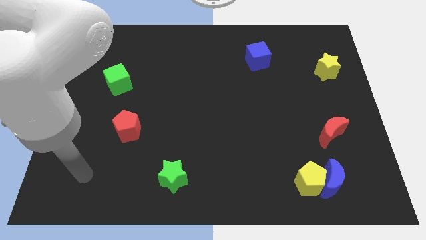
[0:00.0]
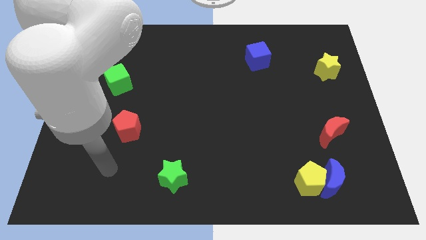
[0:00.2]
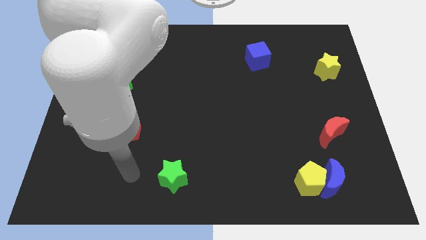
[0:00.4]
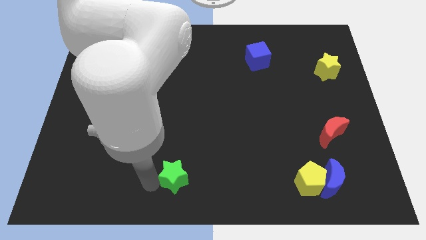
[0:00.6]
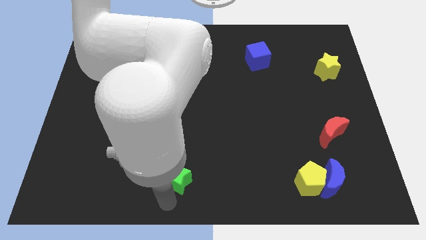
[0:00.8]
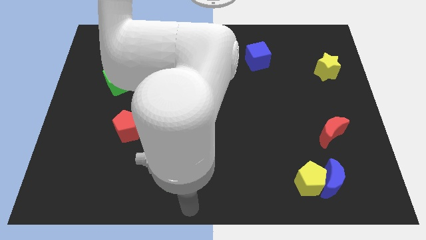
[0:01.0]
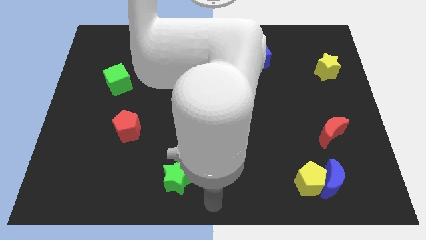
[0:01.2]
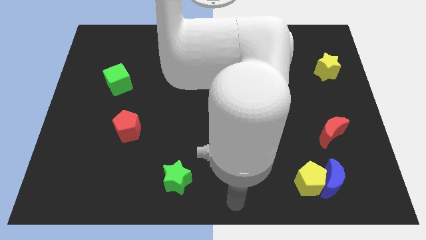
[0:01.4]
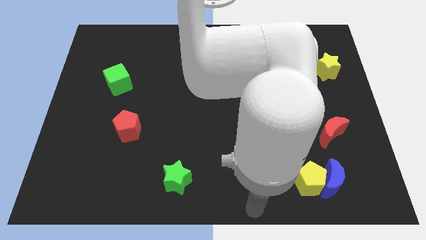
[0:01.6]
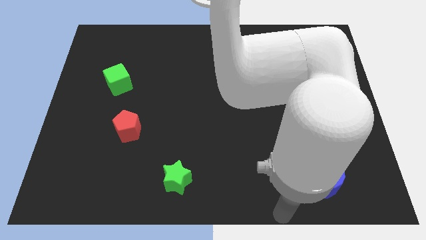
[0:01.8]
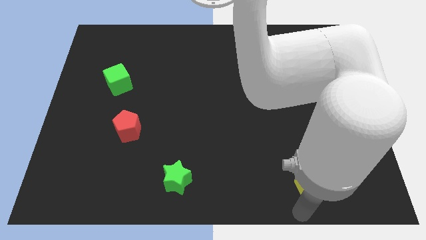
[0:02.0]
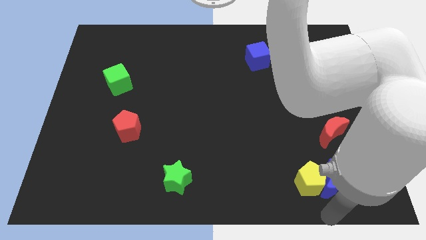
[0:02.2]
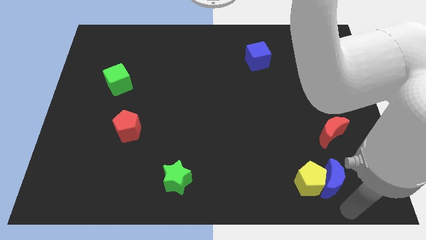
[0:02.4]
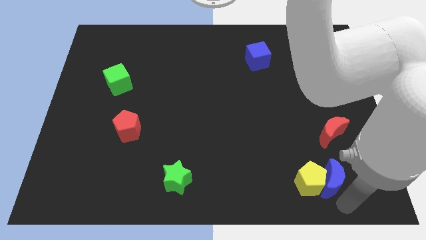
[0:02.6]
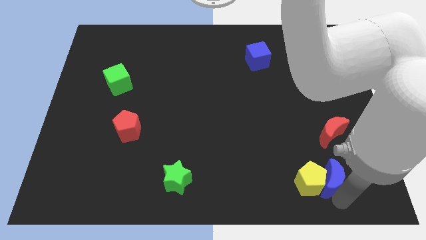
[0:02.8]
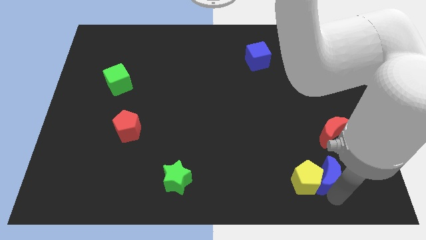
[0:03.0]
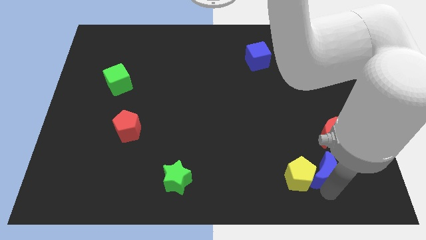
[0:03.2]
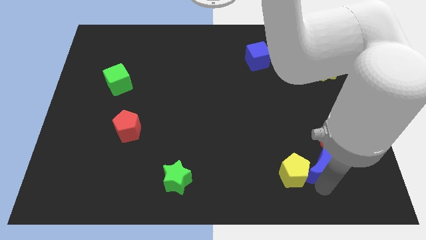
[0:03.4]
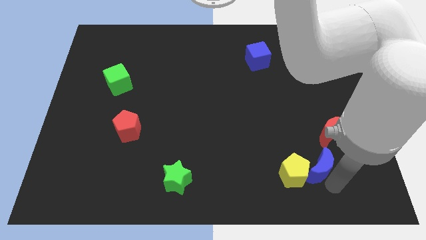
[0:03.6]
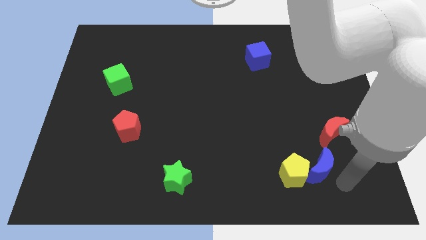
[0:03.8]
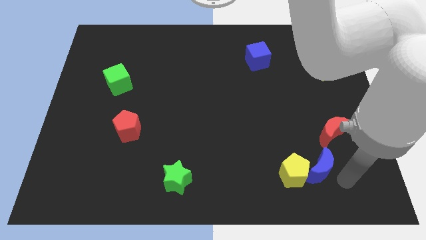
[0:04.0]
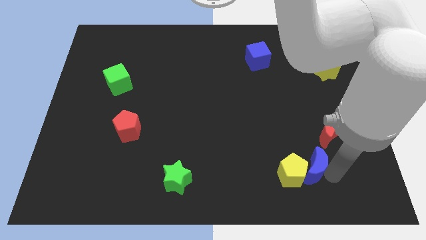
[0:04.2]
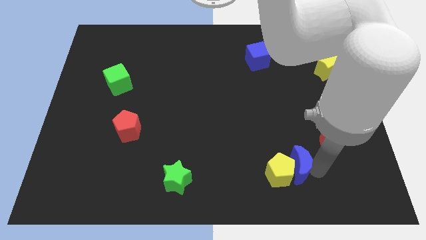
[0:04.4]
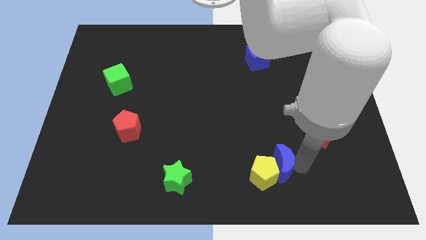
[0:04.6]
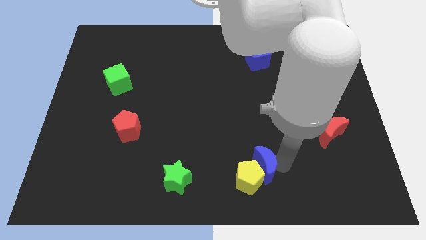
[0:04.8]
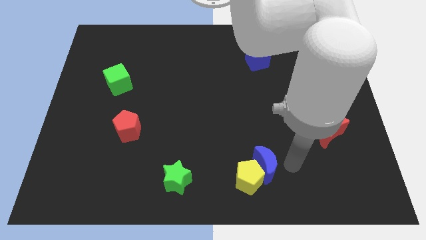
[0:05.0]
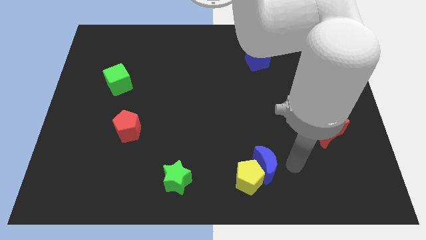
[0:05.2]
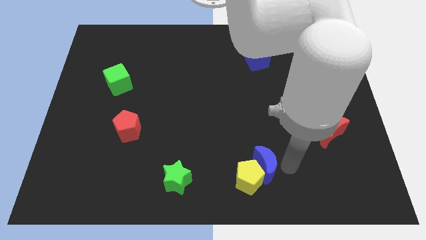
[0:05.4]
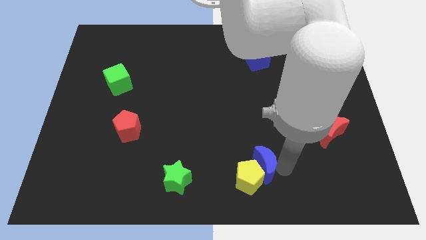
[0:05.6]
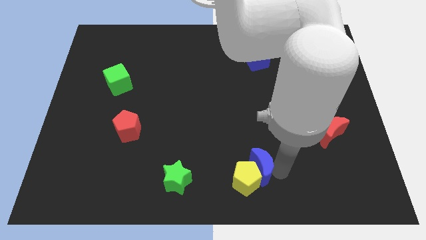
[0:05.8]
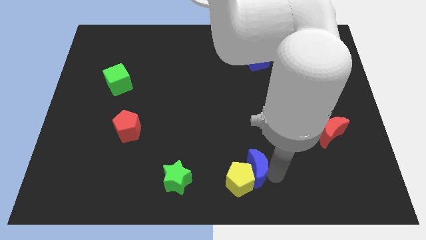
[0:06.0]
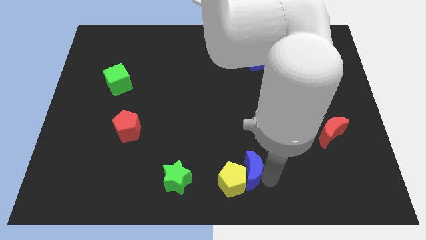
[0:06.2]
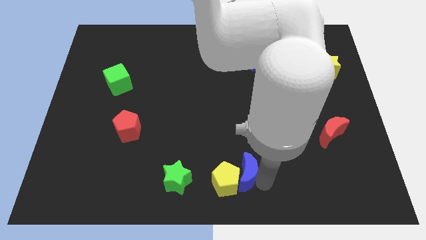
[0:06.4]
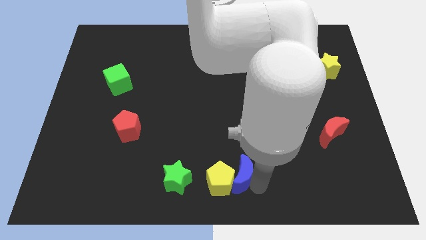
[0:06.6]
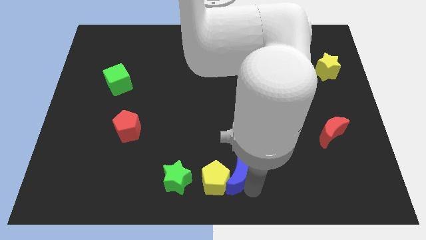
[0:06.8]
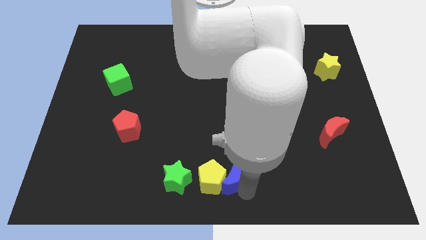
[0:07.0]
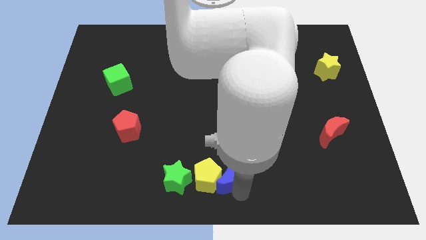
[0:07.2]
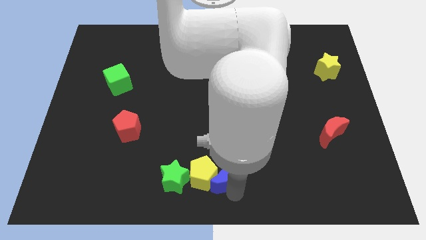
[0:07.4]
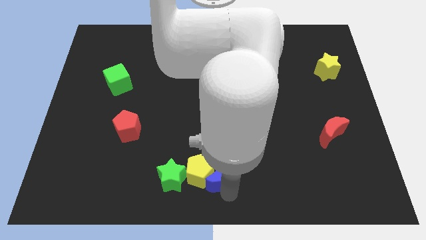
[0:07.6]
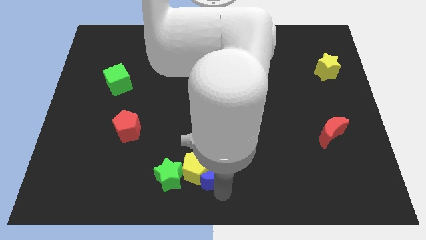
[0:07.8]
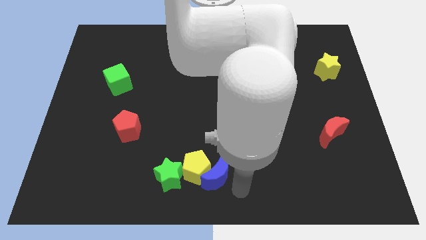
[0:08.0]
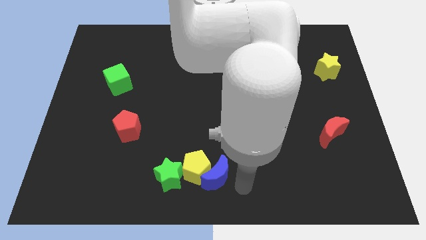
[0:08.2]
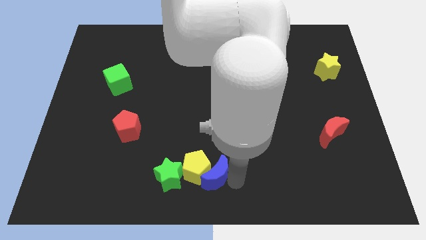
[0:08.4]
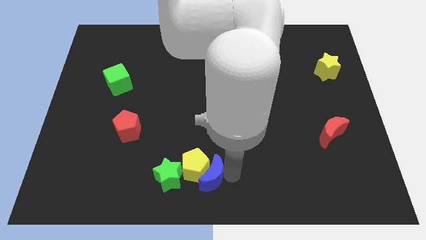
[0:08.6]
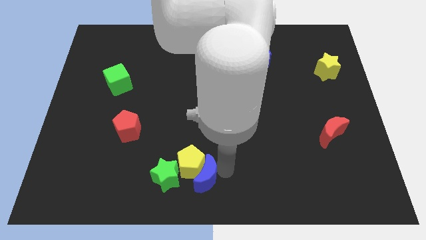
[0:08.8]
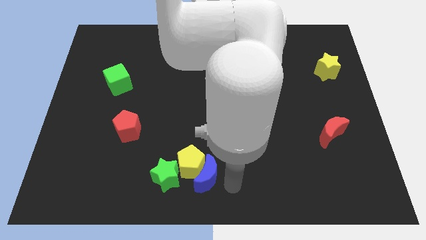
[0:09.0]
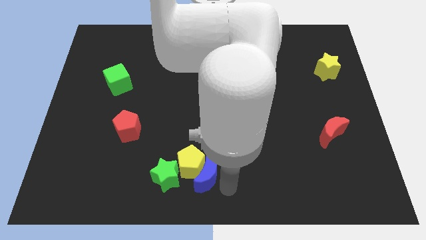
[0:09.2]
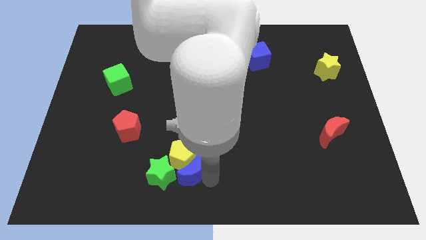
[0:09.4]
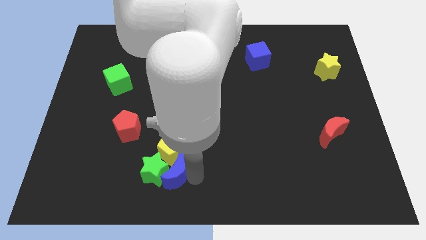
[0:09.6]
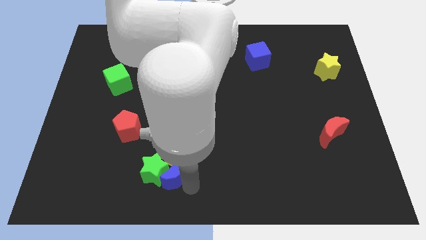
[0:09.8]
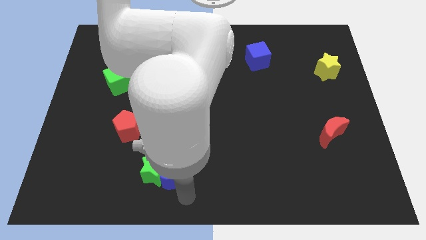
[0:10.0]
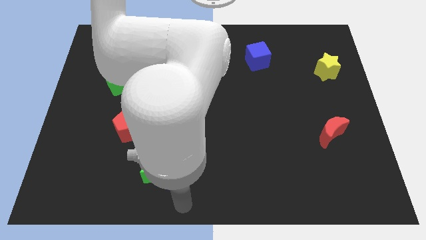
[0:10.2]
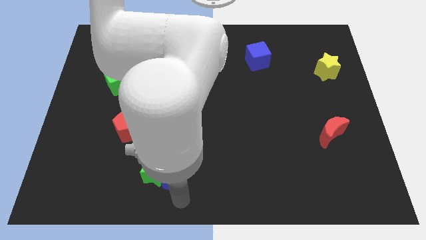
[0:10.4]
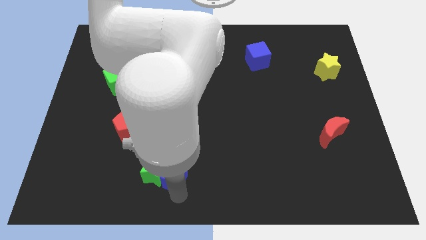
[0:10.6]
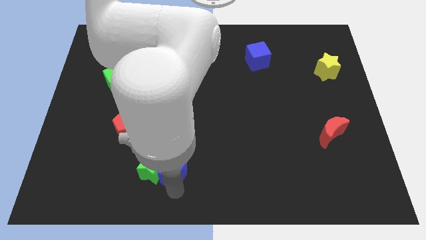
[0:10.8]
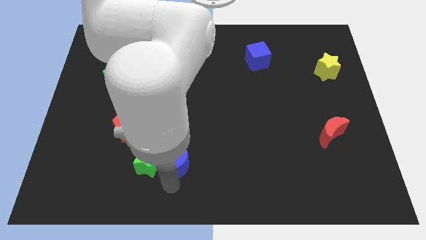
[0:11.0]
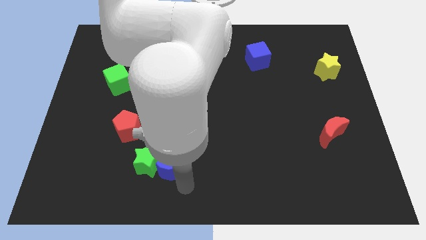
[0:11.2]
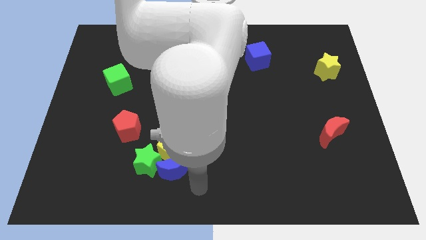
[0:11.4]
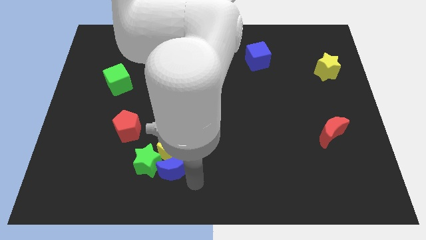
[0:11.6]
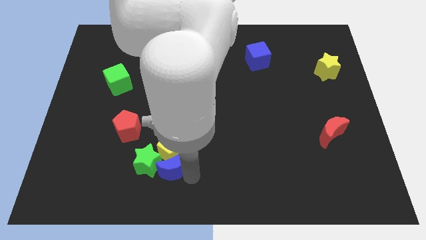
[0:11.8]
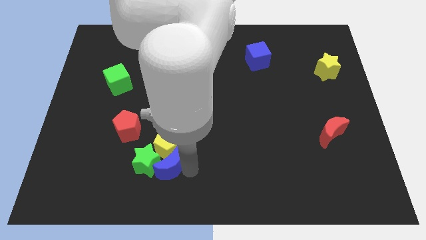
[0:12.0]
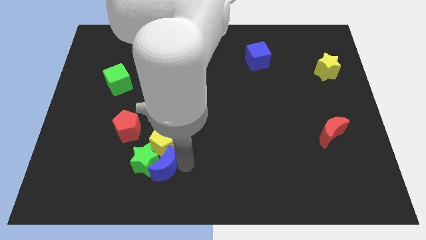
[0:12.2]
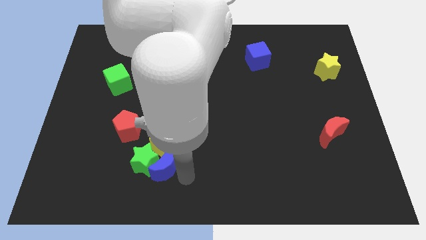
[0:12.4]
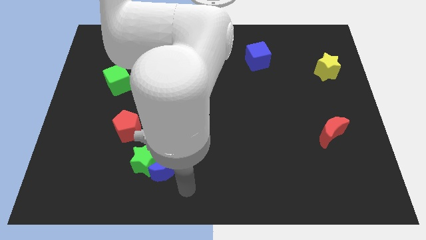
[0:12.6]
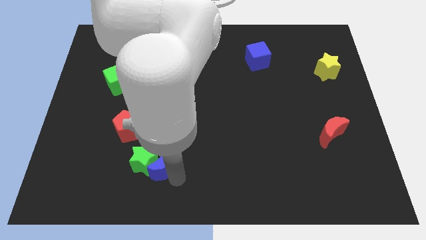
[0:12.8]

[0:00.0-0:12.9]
push the blue moon to the bottom right side of the red pentagon

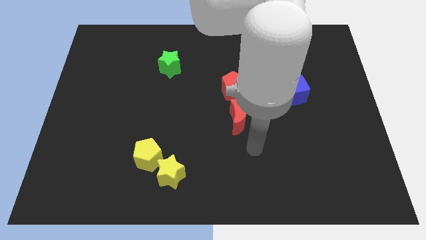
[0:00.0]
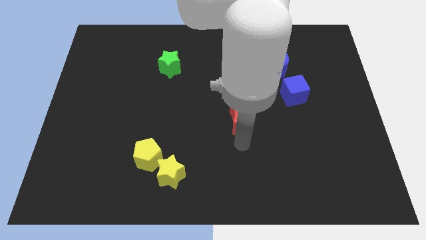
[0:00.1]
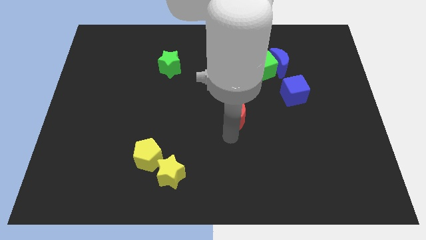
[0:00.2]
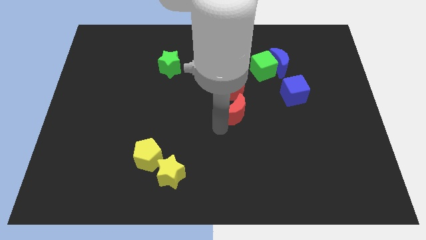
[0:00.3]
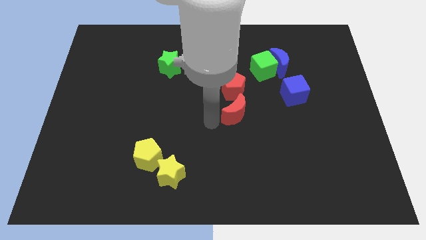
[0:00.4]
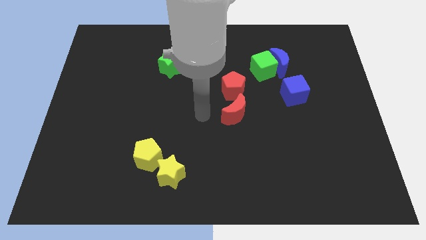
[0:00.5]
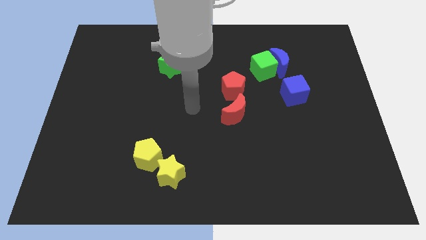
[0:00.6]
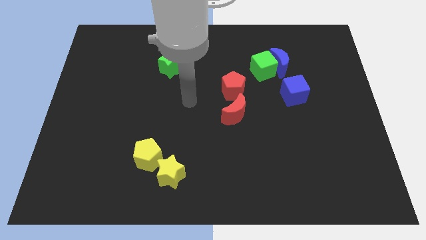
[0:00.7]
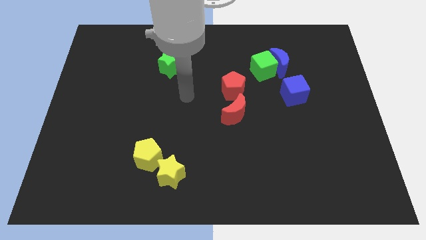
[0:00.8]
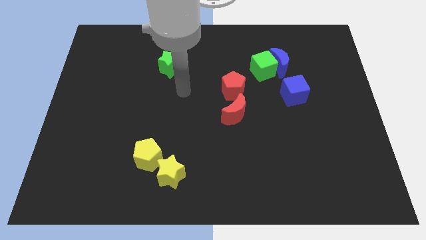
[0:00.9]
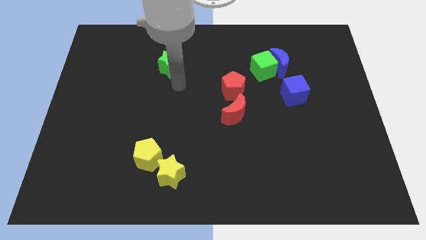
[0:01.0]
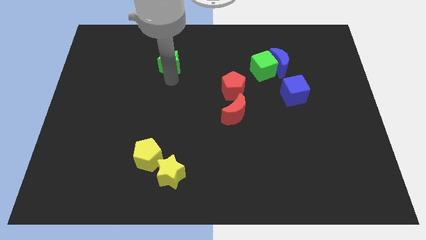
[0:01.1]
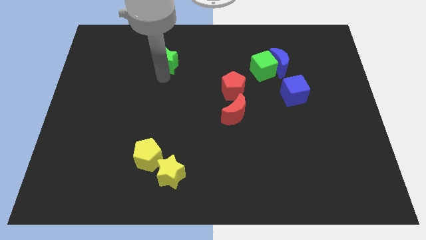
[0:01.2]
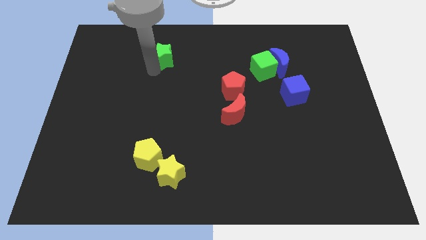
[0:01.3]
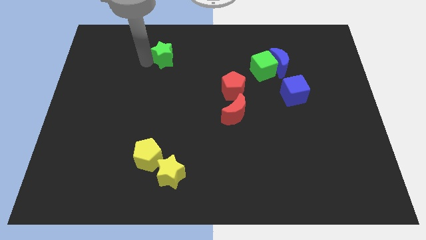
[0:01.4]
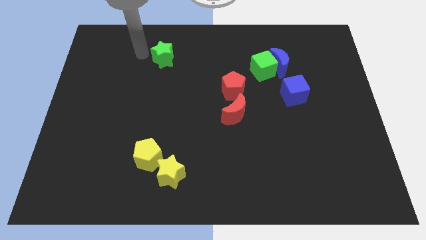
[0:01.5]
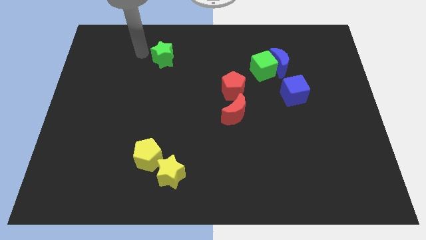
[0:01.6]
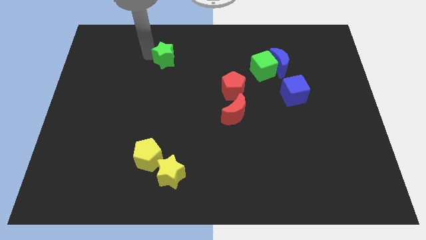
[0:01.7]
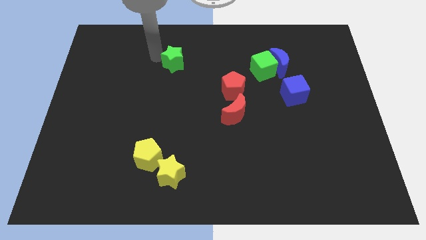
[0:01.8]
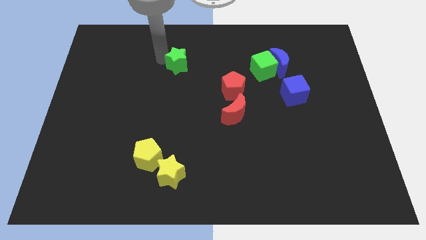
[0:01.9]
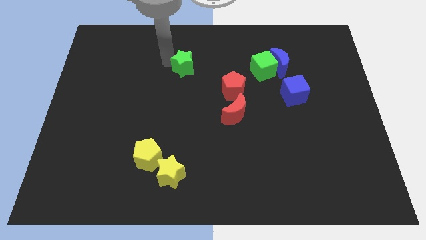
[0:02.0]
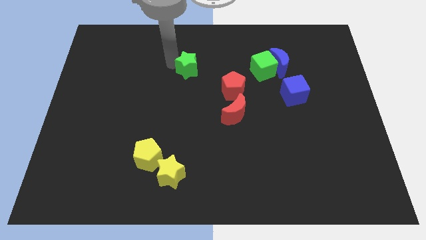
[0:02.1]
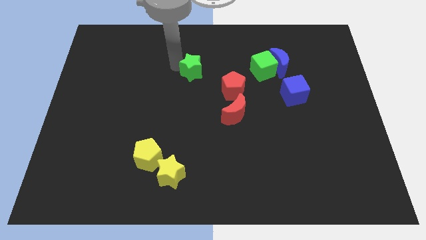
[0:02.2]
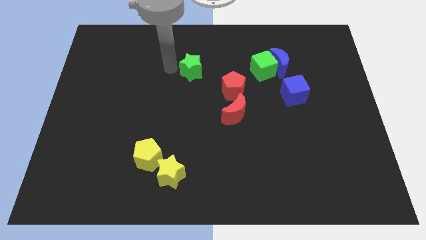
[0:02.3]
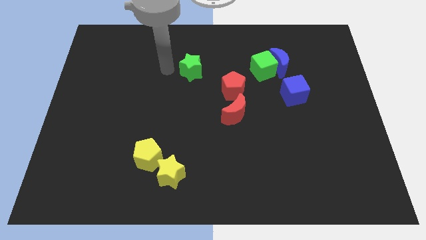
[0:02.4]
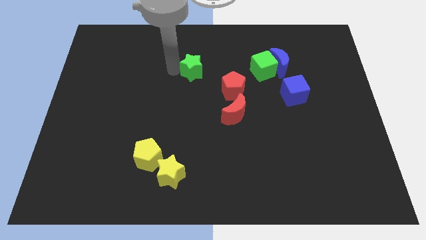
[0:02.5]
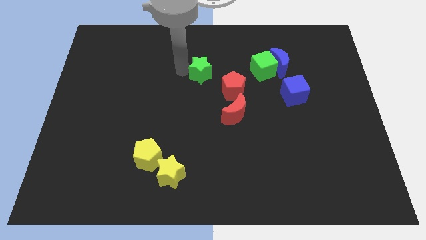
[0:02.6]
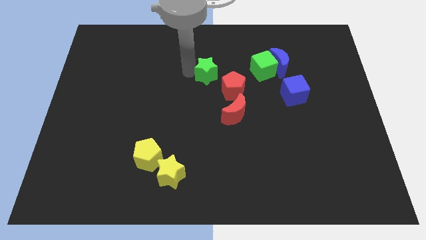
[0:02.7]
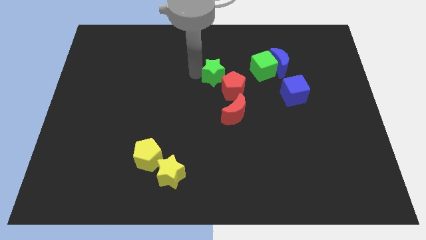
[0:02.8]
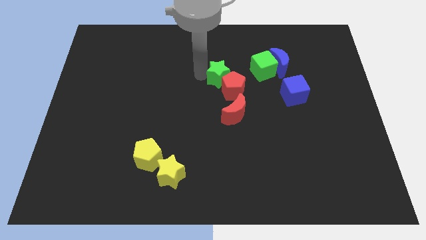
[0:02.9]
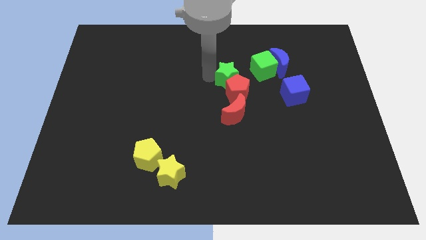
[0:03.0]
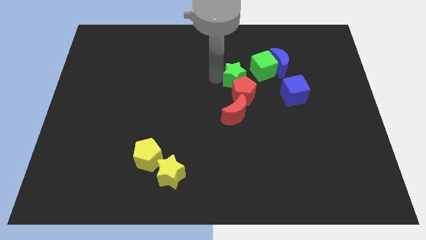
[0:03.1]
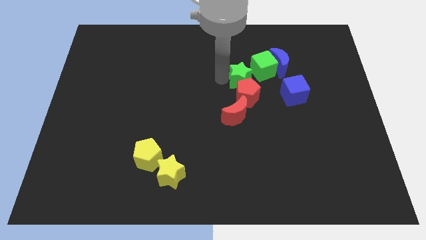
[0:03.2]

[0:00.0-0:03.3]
push the green star to the left of the blue cube
